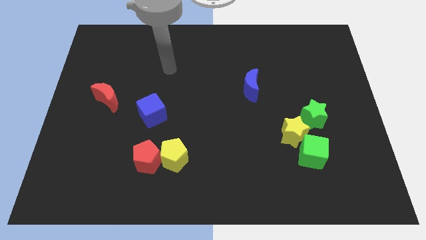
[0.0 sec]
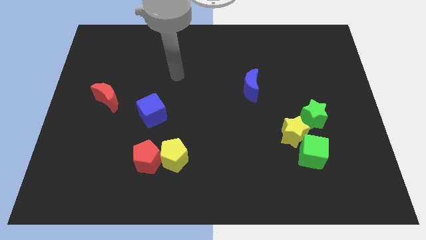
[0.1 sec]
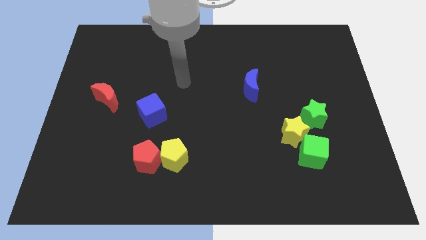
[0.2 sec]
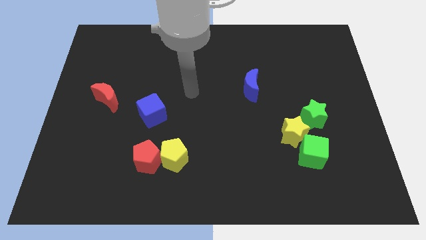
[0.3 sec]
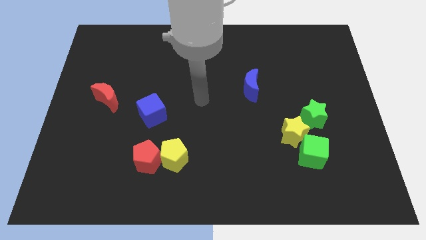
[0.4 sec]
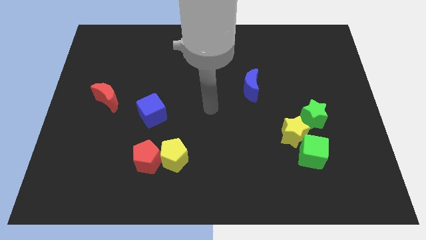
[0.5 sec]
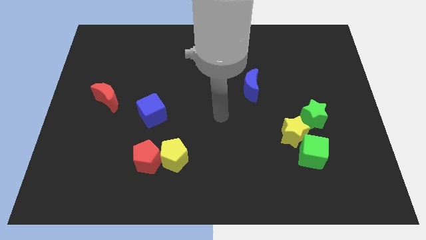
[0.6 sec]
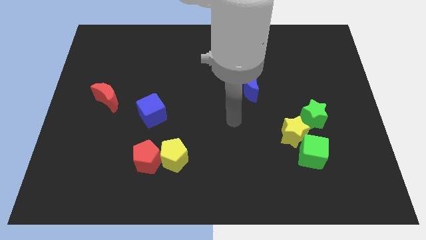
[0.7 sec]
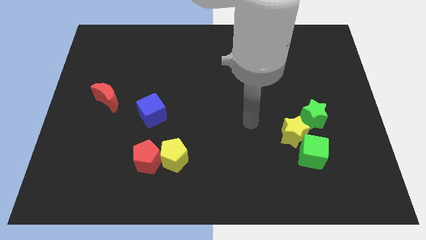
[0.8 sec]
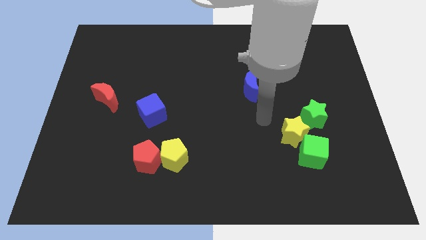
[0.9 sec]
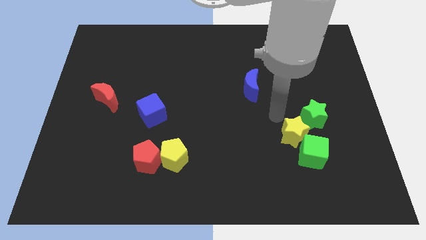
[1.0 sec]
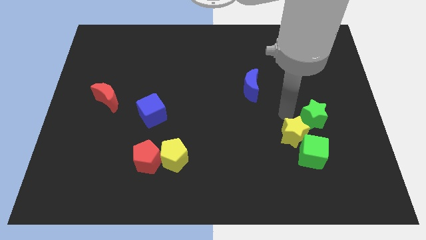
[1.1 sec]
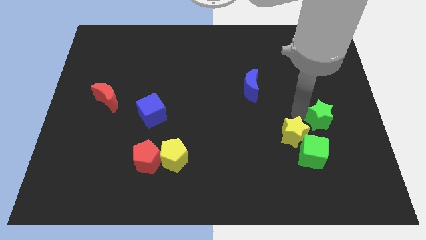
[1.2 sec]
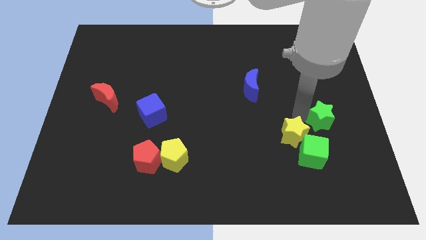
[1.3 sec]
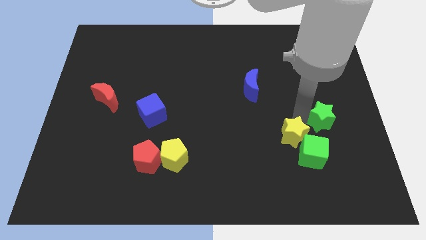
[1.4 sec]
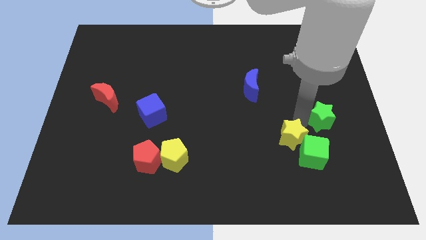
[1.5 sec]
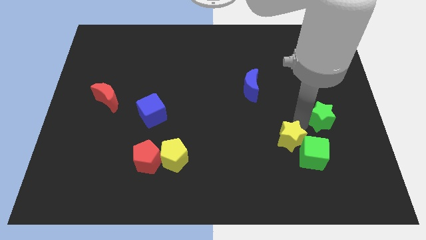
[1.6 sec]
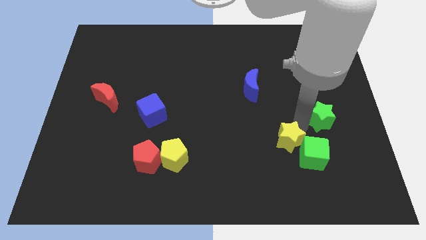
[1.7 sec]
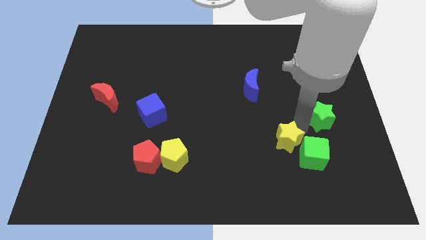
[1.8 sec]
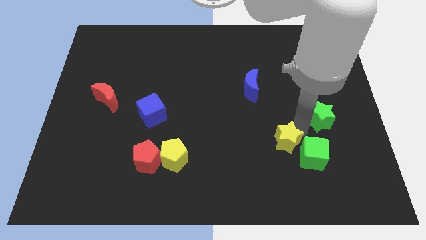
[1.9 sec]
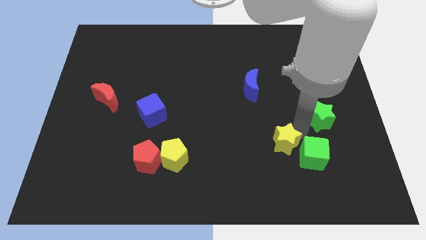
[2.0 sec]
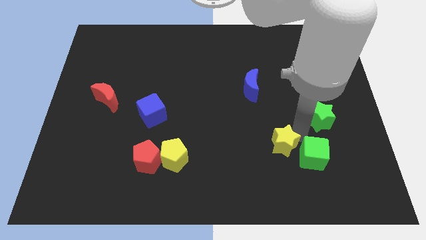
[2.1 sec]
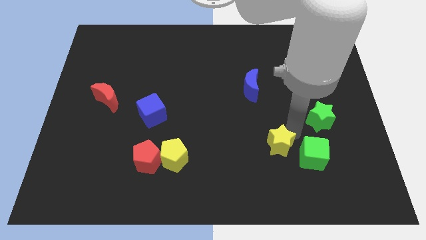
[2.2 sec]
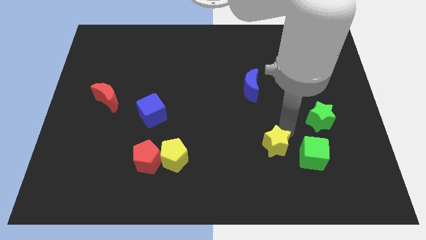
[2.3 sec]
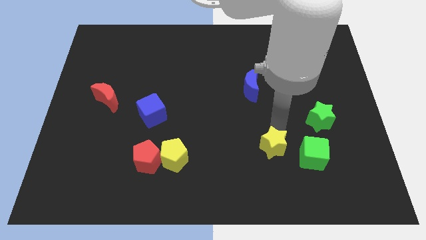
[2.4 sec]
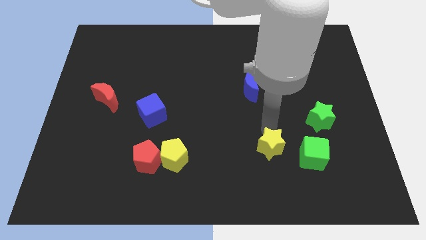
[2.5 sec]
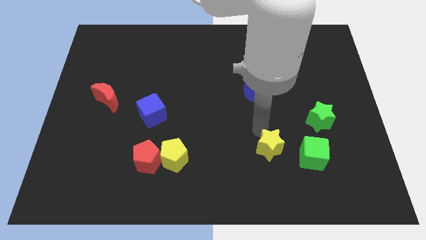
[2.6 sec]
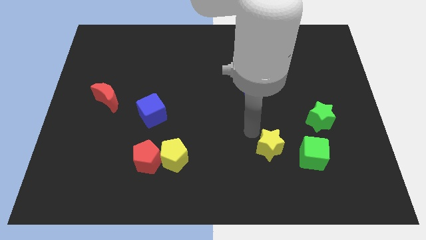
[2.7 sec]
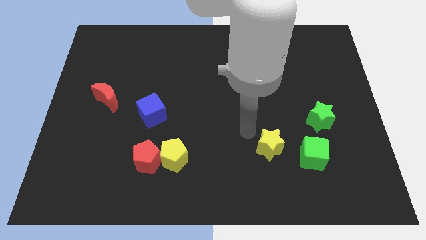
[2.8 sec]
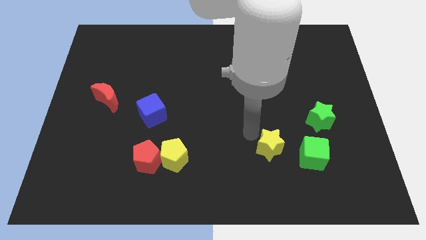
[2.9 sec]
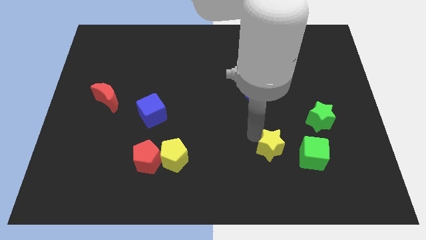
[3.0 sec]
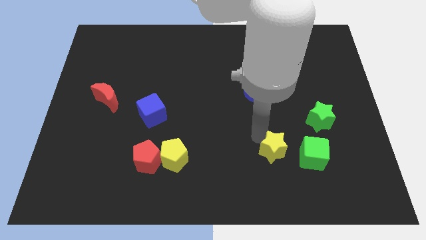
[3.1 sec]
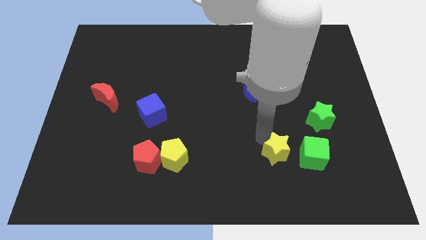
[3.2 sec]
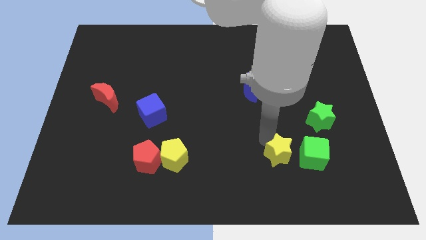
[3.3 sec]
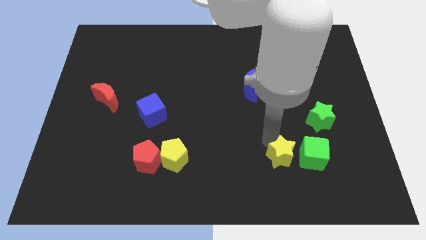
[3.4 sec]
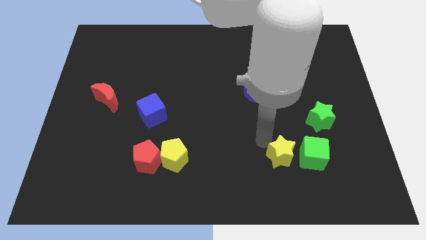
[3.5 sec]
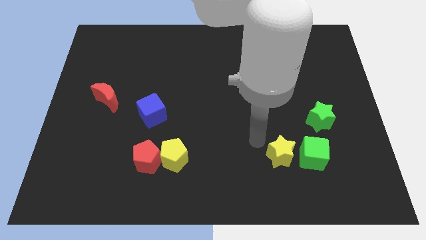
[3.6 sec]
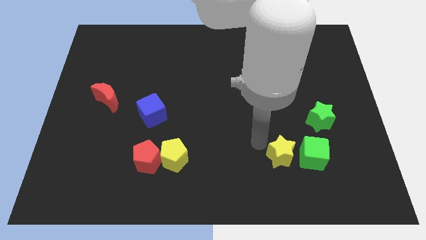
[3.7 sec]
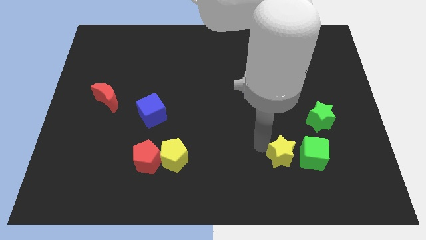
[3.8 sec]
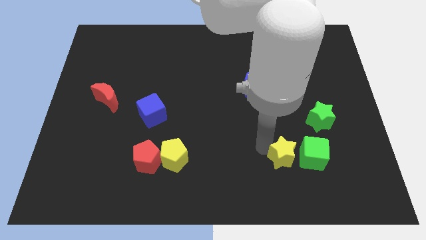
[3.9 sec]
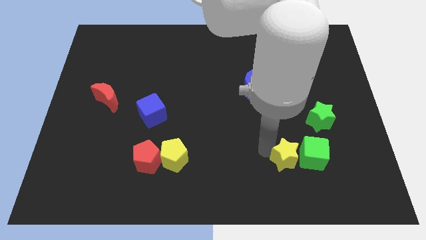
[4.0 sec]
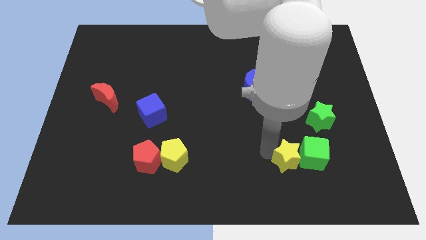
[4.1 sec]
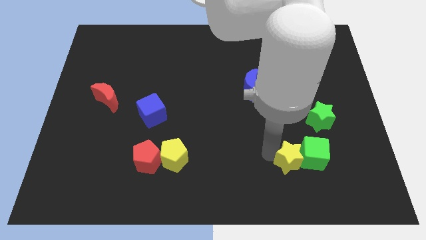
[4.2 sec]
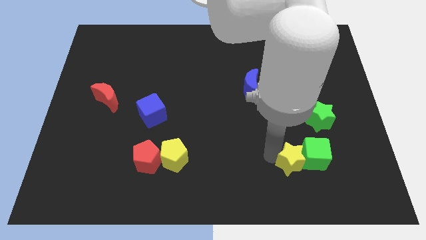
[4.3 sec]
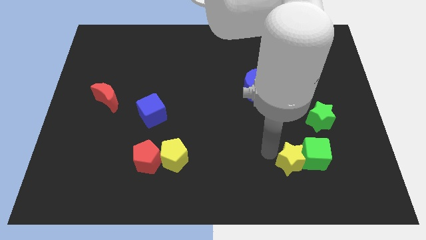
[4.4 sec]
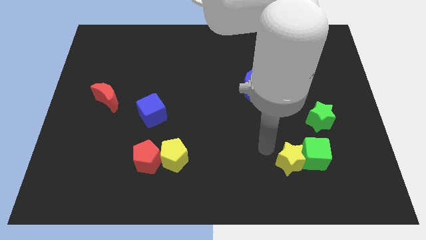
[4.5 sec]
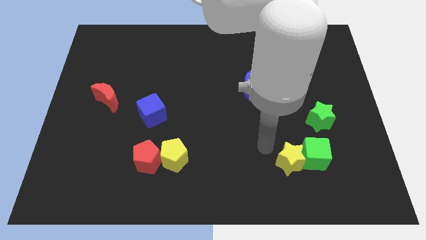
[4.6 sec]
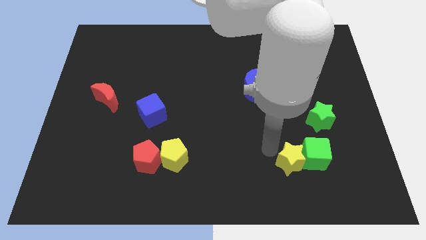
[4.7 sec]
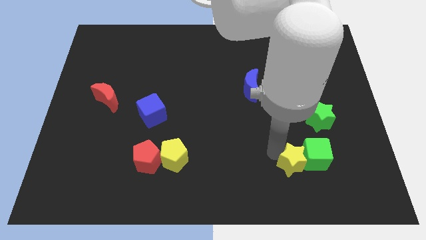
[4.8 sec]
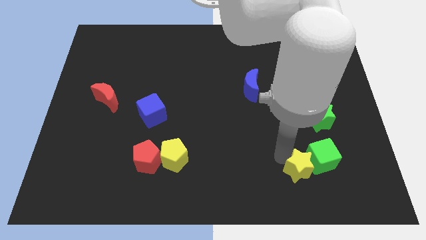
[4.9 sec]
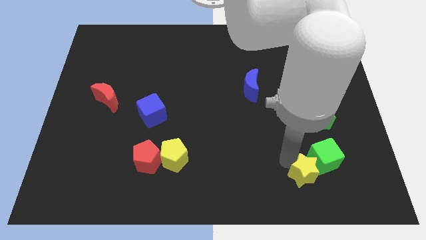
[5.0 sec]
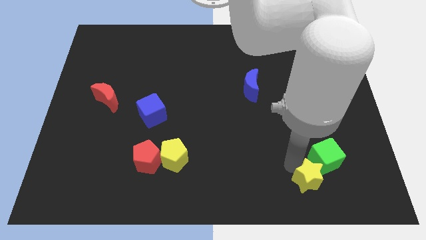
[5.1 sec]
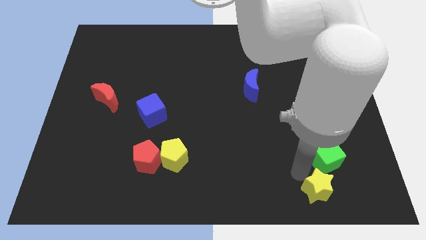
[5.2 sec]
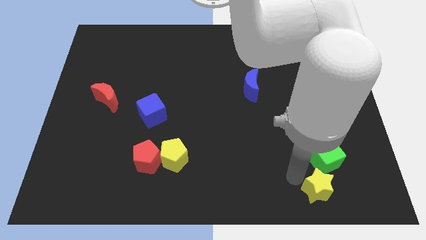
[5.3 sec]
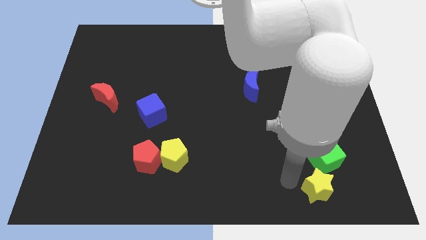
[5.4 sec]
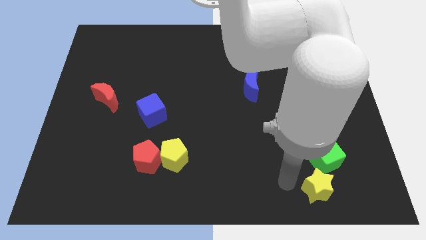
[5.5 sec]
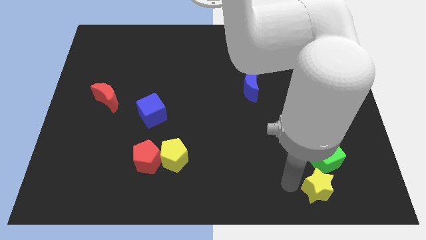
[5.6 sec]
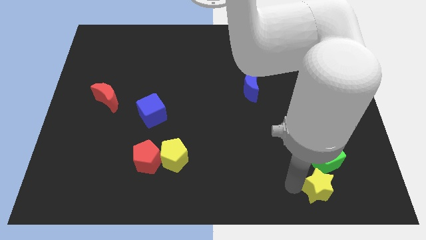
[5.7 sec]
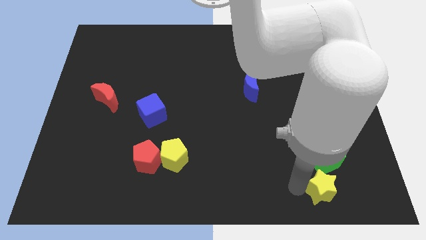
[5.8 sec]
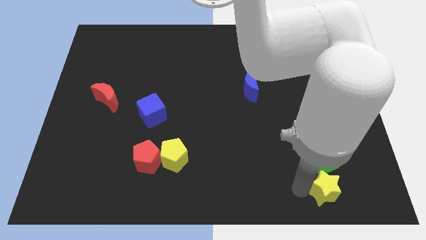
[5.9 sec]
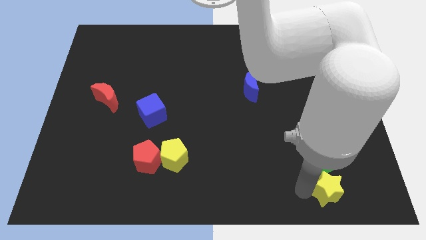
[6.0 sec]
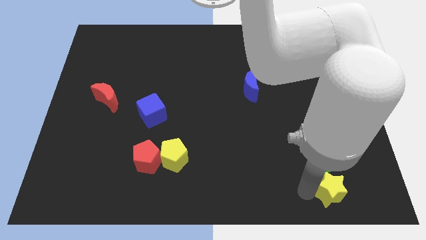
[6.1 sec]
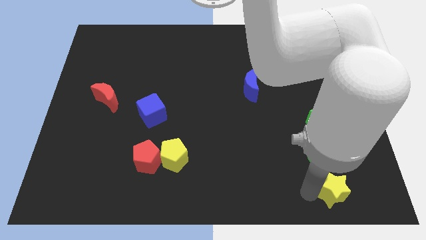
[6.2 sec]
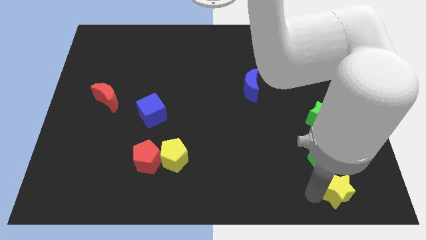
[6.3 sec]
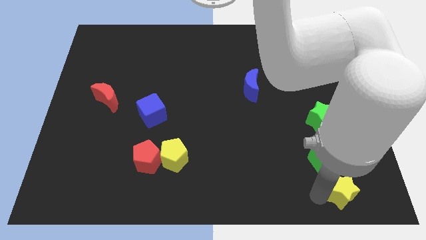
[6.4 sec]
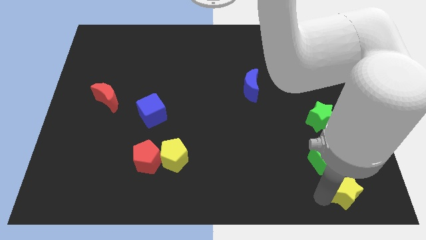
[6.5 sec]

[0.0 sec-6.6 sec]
put the yellow star to the bottom right of the board
